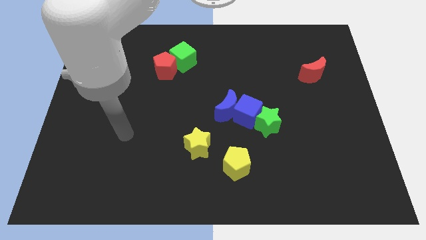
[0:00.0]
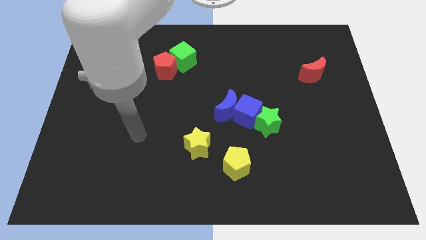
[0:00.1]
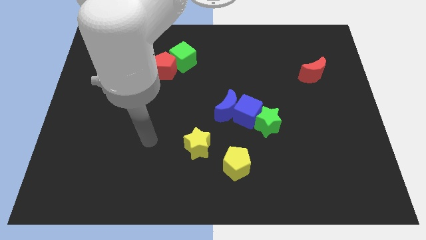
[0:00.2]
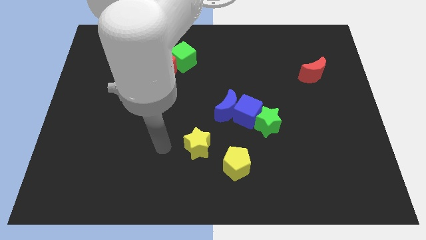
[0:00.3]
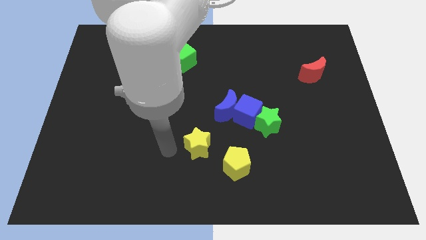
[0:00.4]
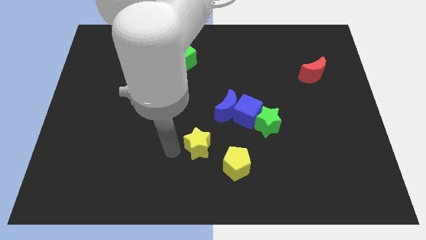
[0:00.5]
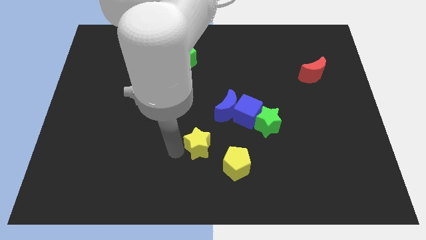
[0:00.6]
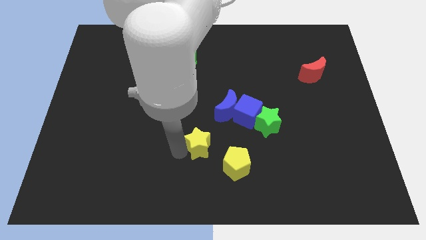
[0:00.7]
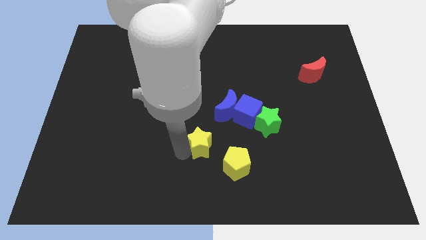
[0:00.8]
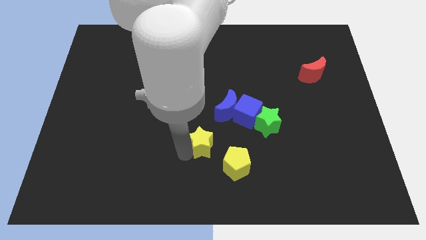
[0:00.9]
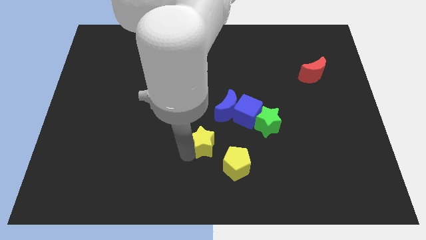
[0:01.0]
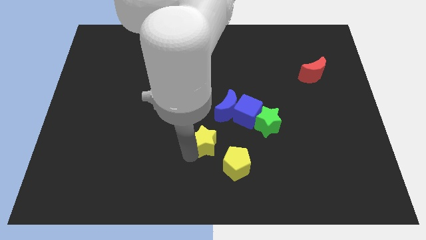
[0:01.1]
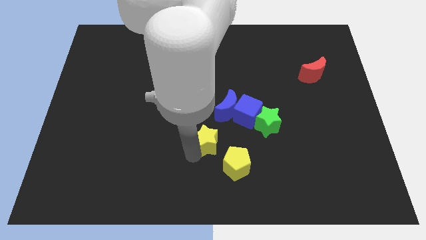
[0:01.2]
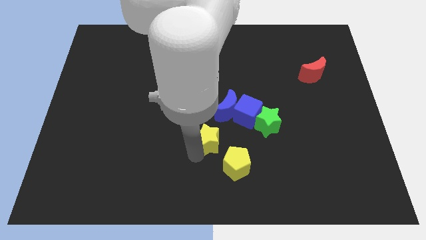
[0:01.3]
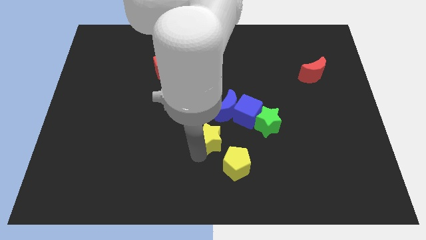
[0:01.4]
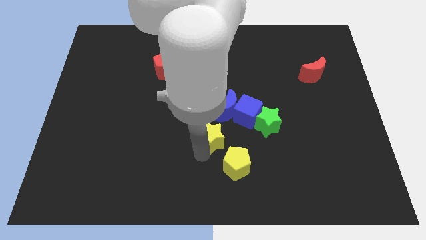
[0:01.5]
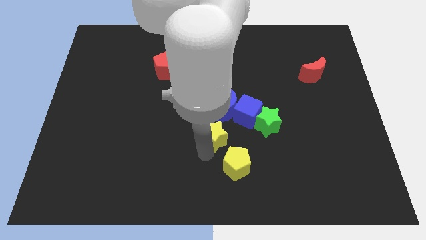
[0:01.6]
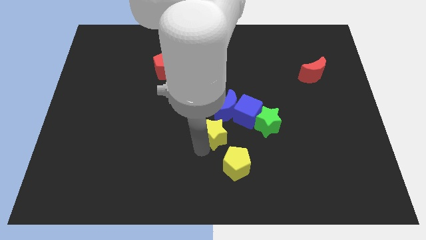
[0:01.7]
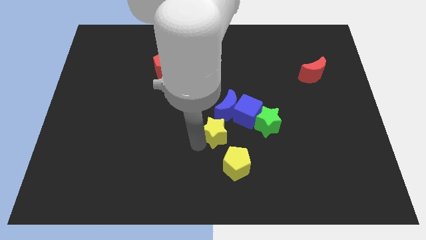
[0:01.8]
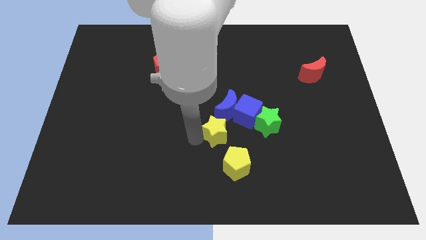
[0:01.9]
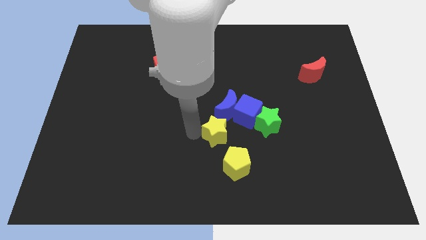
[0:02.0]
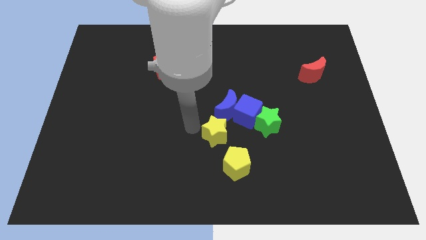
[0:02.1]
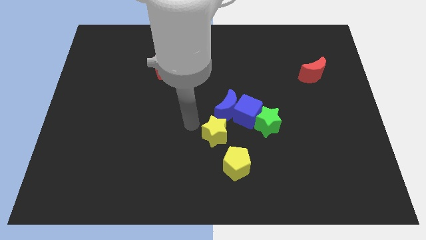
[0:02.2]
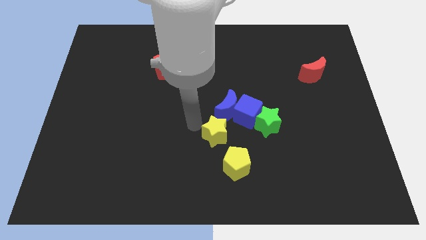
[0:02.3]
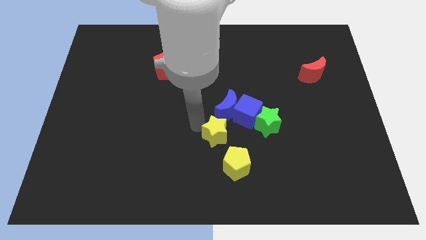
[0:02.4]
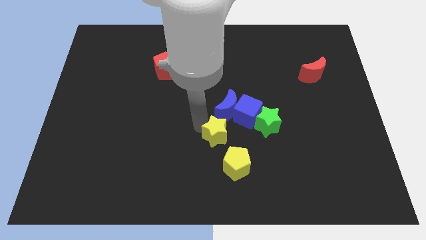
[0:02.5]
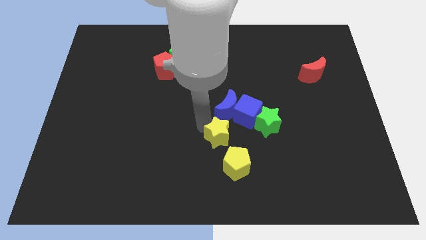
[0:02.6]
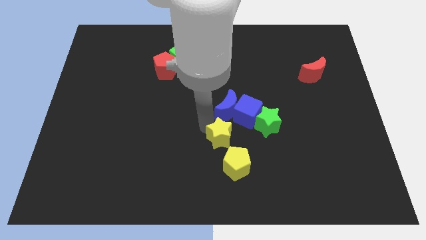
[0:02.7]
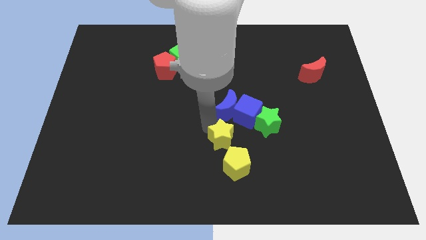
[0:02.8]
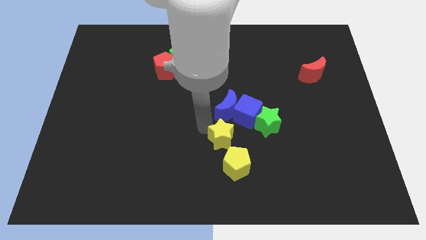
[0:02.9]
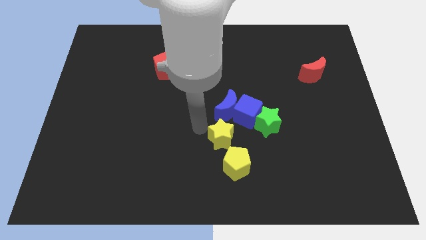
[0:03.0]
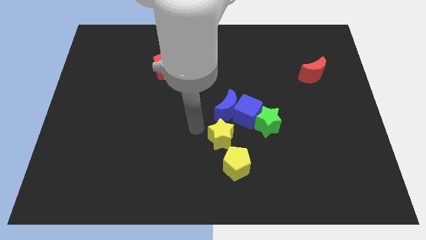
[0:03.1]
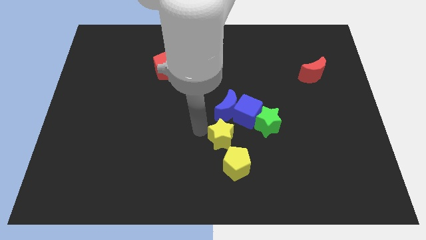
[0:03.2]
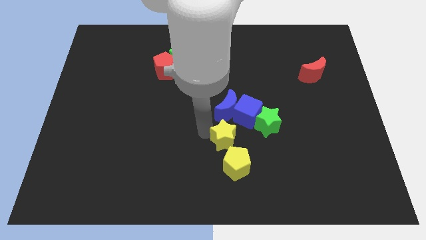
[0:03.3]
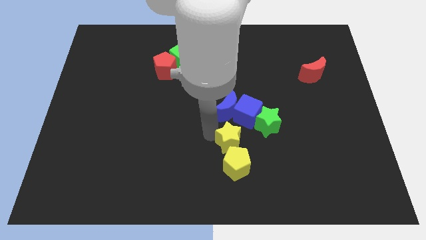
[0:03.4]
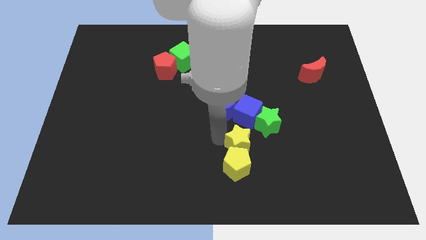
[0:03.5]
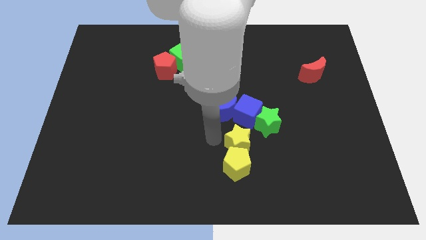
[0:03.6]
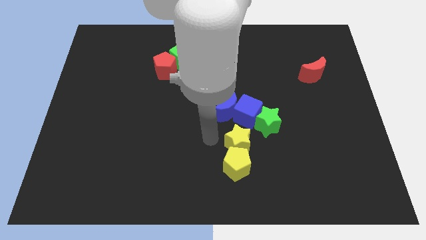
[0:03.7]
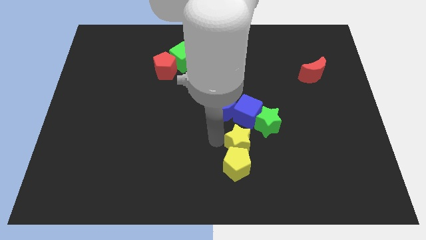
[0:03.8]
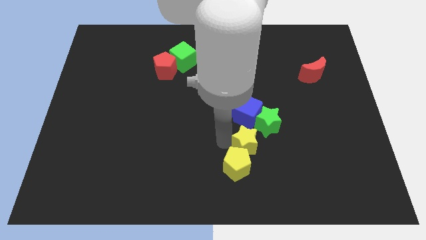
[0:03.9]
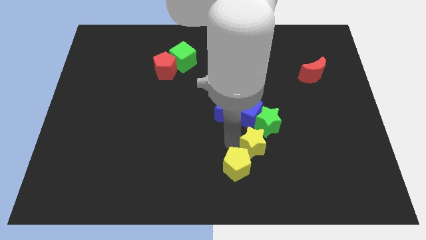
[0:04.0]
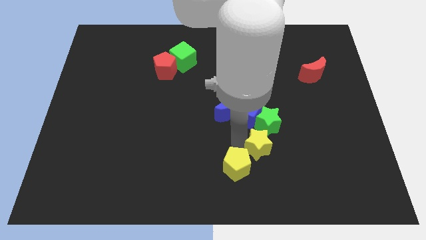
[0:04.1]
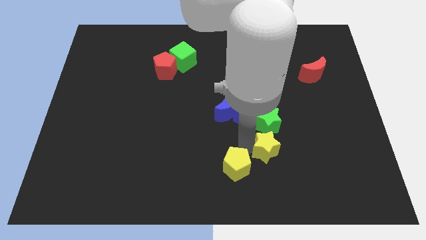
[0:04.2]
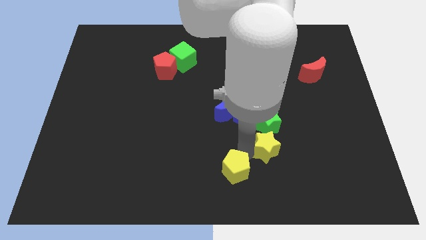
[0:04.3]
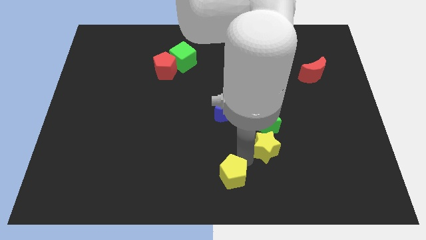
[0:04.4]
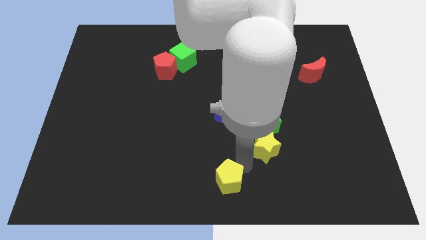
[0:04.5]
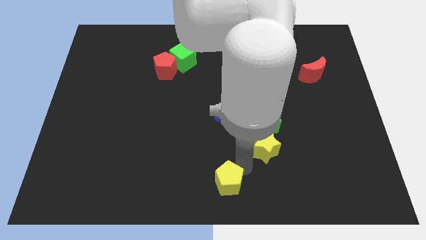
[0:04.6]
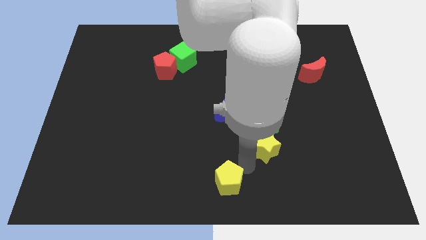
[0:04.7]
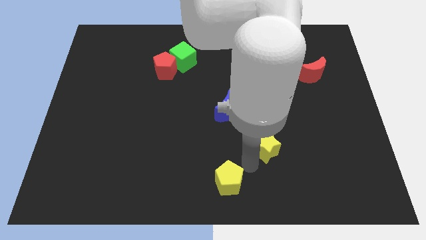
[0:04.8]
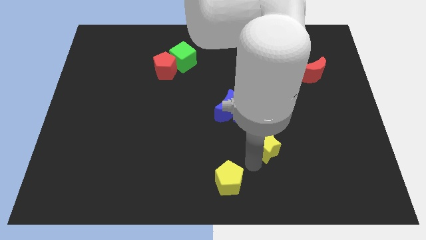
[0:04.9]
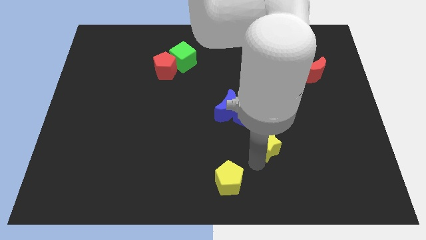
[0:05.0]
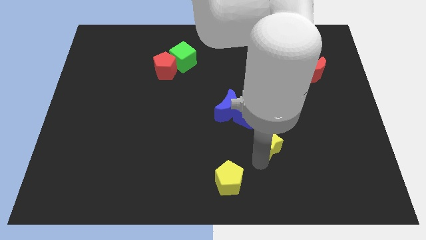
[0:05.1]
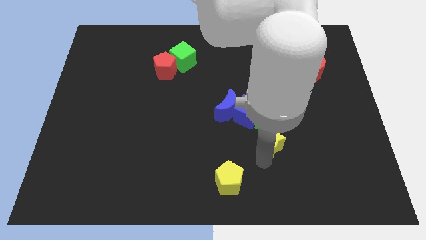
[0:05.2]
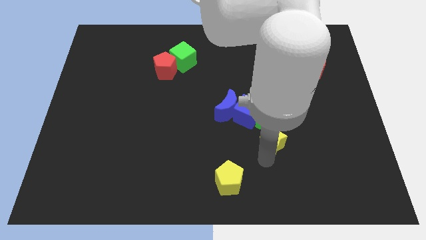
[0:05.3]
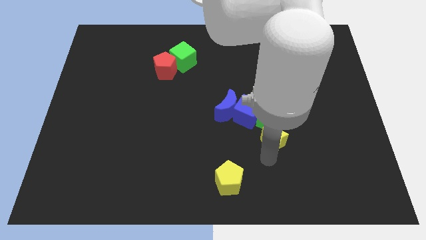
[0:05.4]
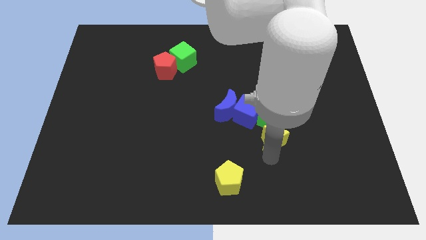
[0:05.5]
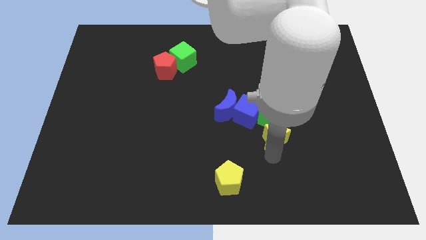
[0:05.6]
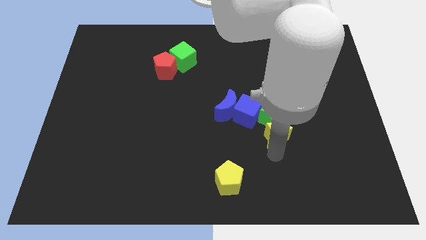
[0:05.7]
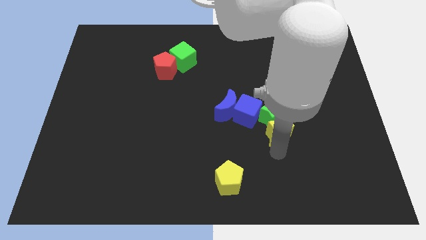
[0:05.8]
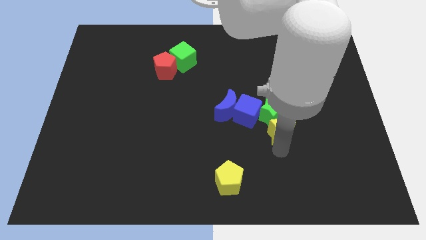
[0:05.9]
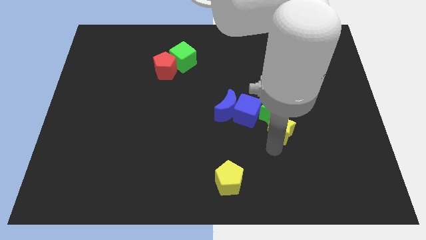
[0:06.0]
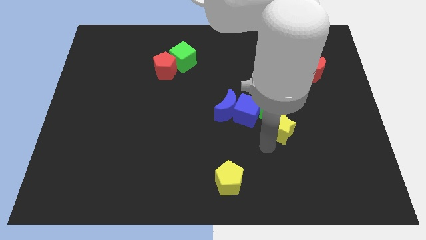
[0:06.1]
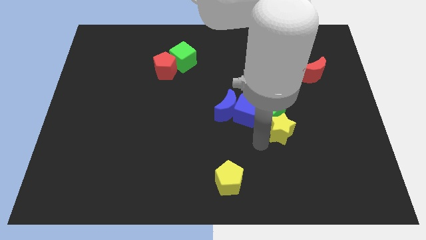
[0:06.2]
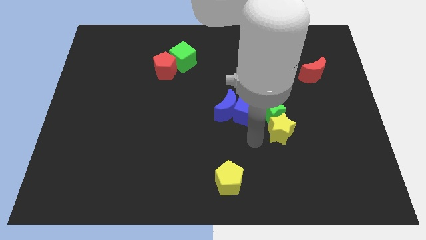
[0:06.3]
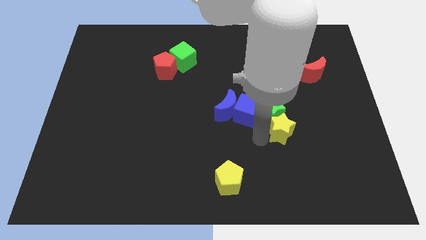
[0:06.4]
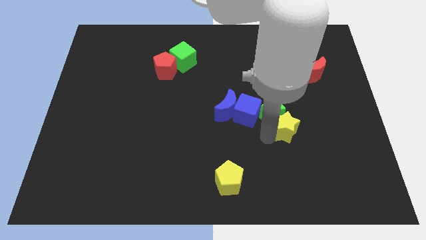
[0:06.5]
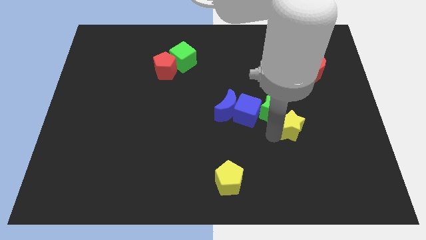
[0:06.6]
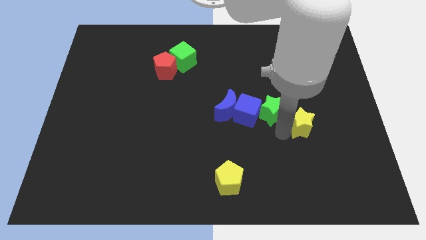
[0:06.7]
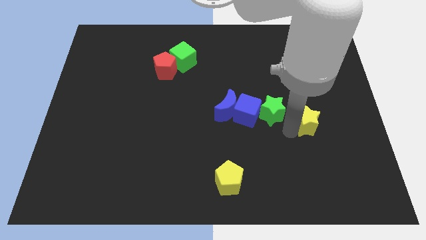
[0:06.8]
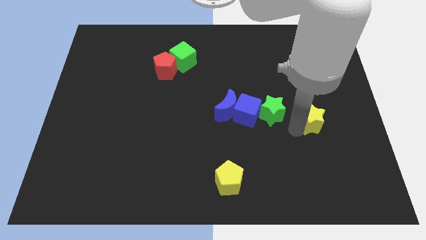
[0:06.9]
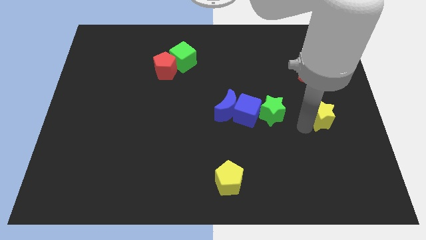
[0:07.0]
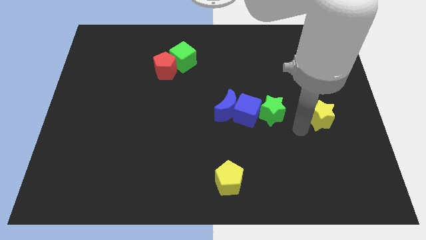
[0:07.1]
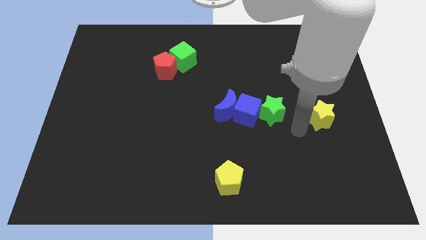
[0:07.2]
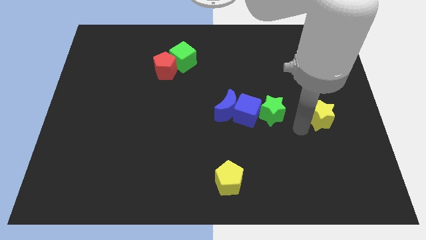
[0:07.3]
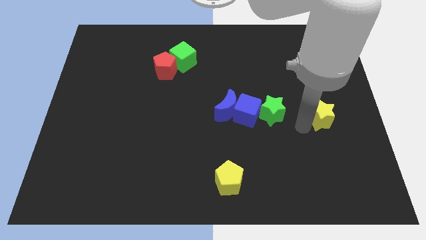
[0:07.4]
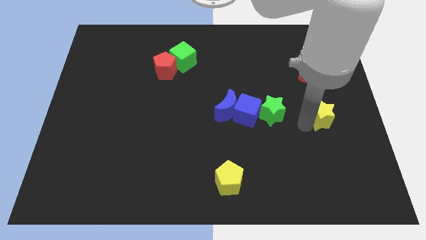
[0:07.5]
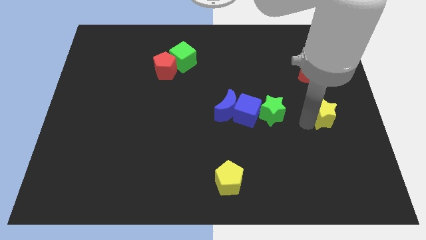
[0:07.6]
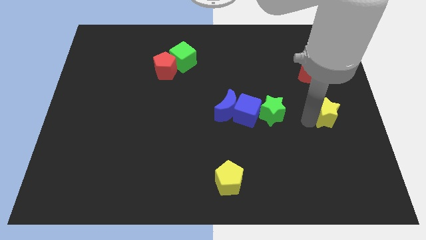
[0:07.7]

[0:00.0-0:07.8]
move the yellow star to the right side of the board
